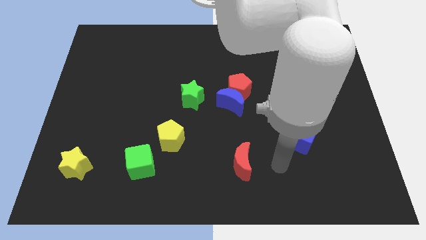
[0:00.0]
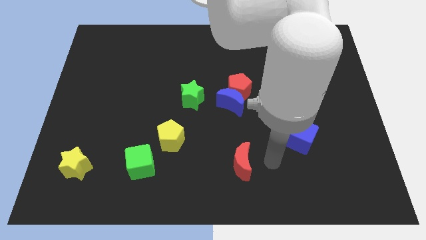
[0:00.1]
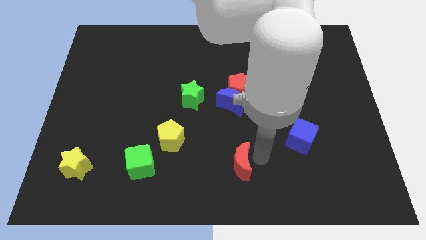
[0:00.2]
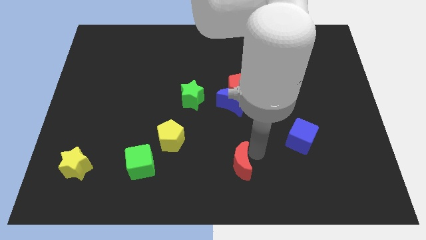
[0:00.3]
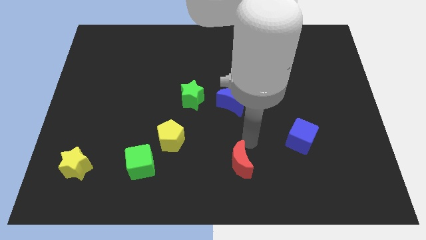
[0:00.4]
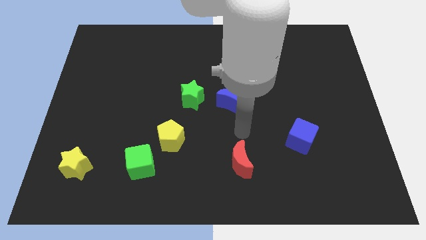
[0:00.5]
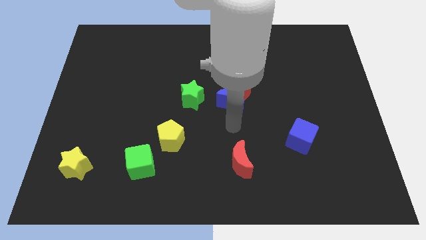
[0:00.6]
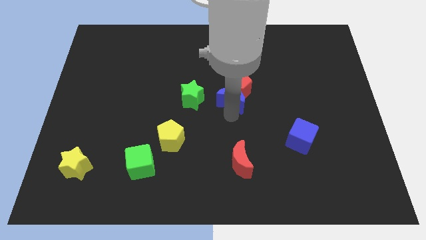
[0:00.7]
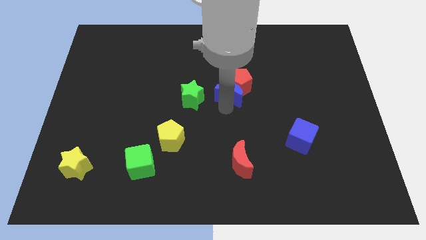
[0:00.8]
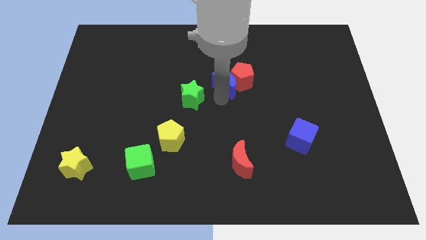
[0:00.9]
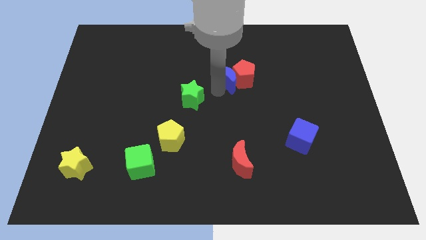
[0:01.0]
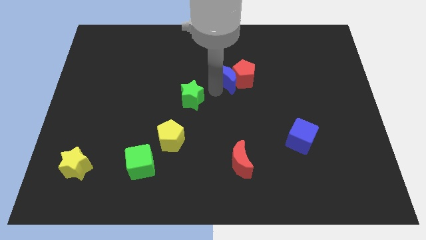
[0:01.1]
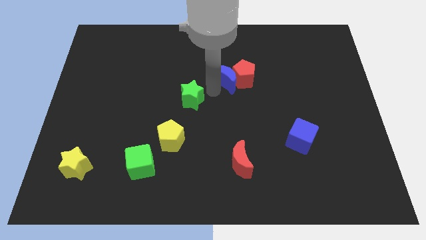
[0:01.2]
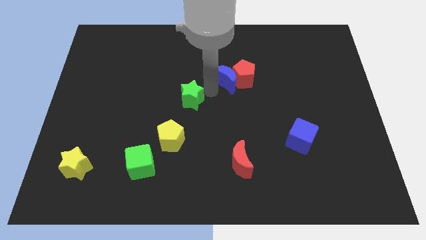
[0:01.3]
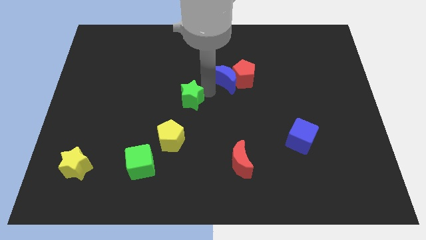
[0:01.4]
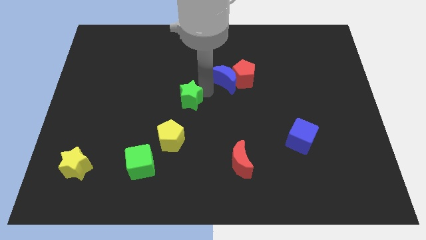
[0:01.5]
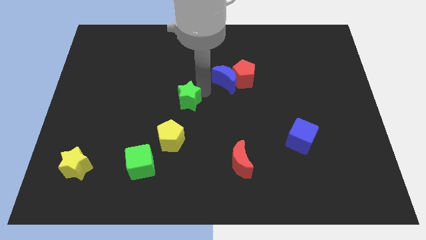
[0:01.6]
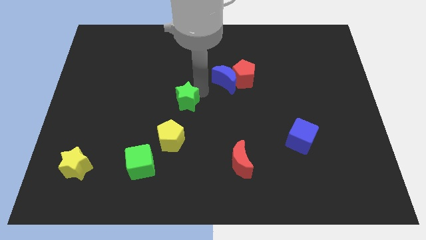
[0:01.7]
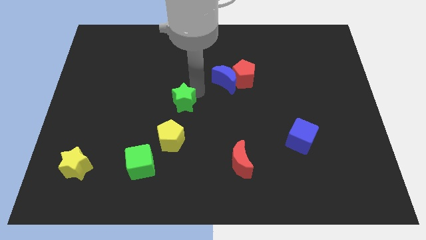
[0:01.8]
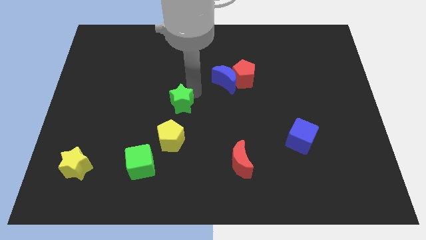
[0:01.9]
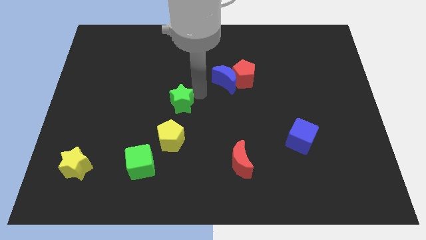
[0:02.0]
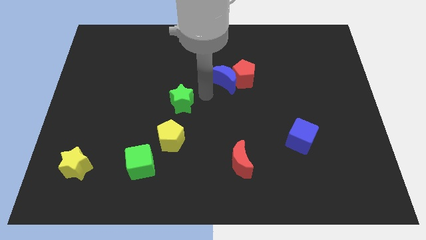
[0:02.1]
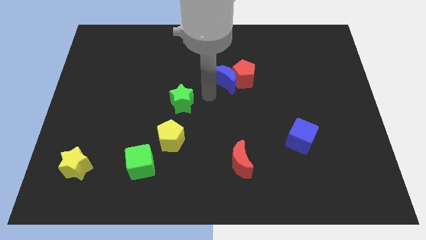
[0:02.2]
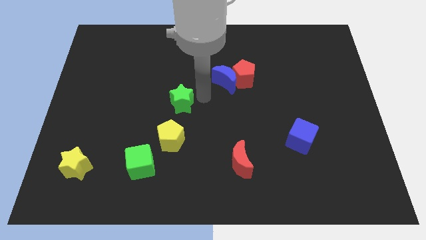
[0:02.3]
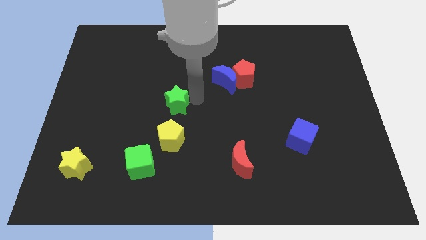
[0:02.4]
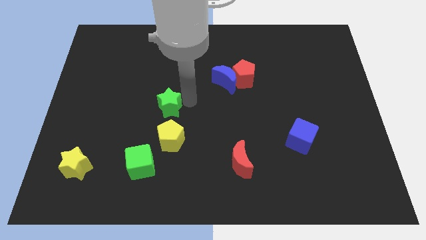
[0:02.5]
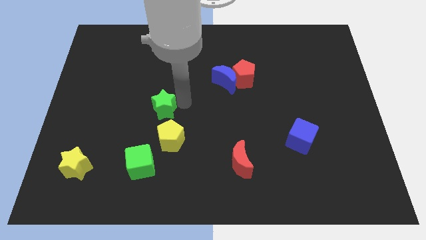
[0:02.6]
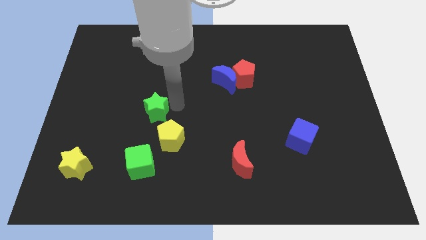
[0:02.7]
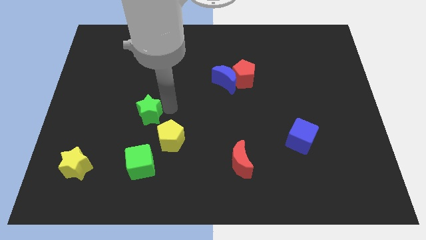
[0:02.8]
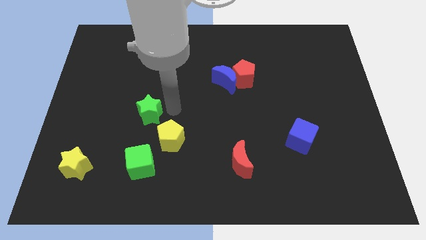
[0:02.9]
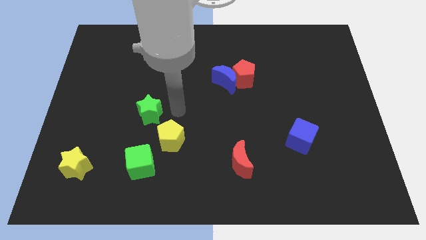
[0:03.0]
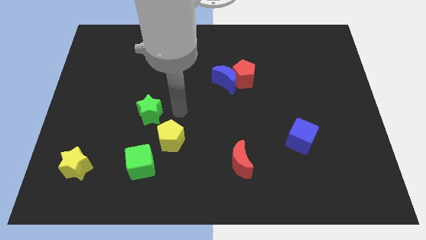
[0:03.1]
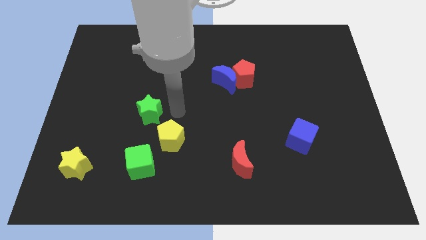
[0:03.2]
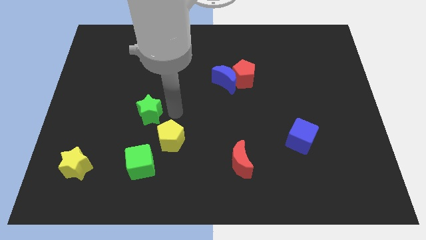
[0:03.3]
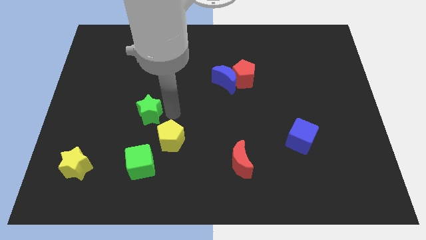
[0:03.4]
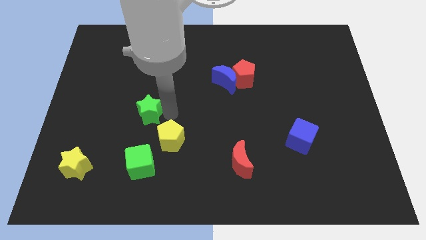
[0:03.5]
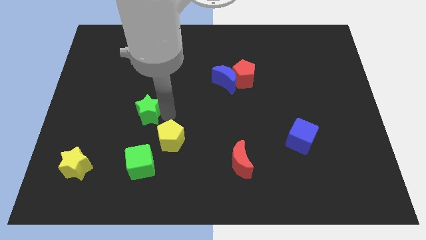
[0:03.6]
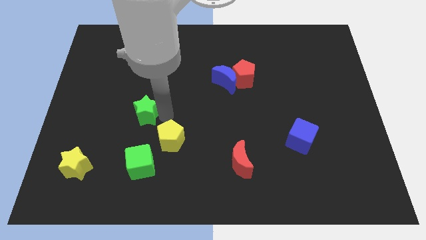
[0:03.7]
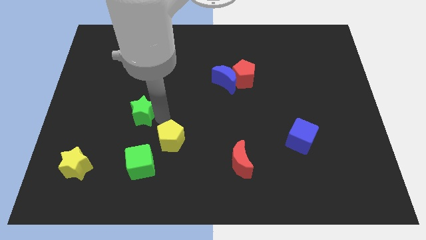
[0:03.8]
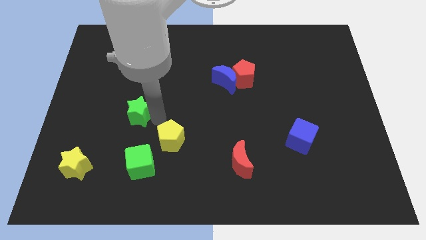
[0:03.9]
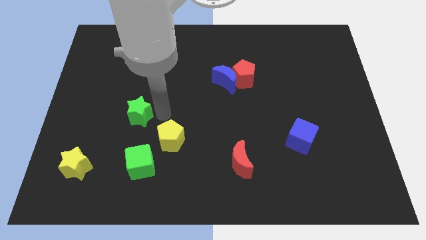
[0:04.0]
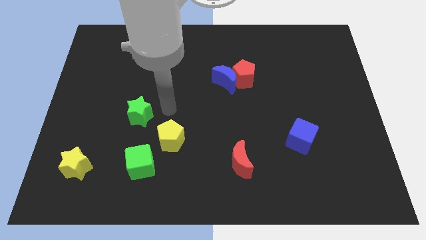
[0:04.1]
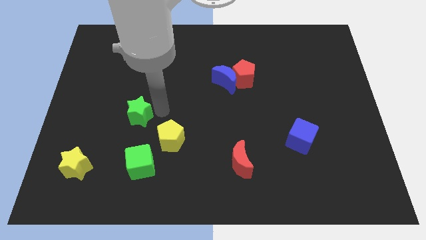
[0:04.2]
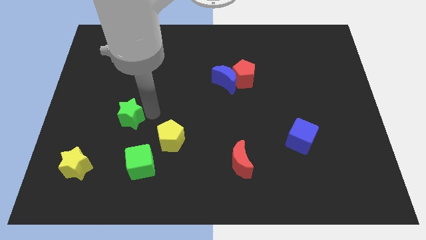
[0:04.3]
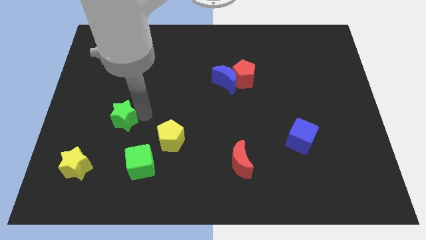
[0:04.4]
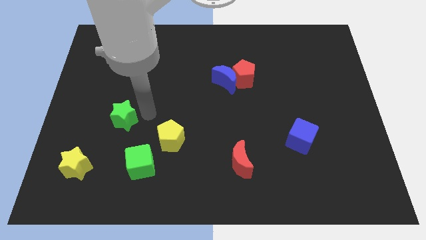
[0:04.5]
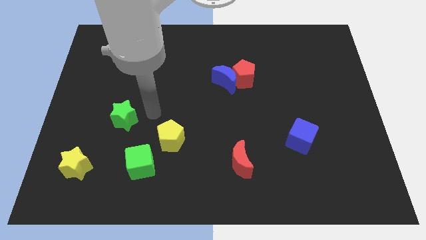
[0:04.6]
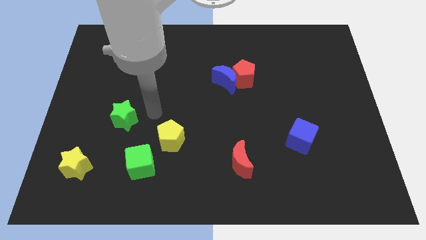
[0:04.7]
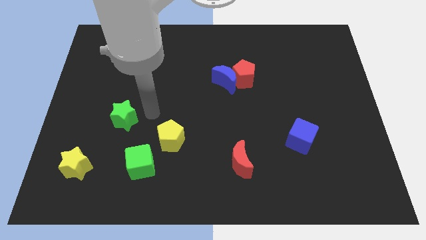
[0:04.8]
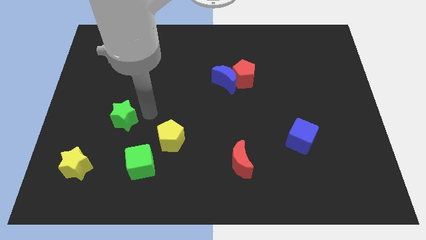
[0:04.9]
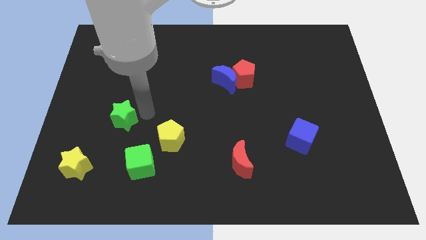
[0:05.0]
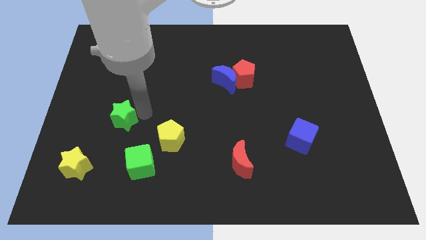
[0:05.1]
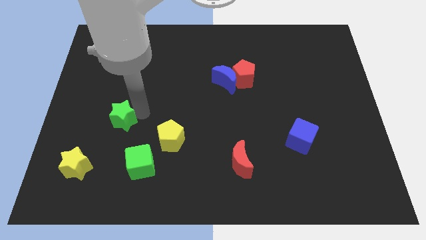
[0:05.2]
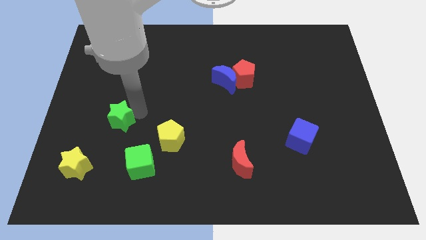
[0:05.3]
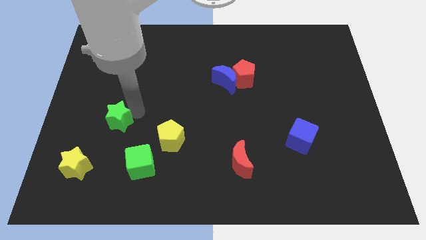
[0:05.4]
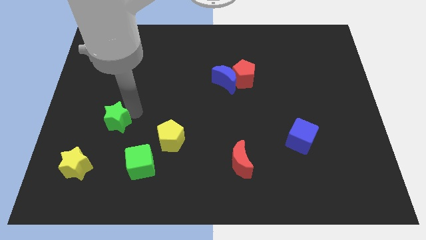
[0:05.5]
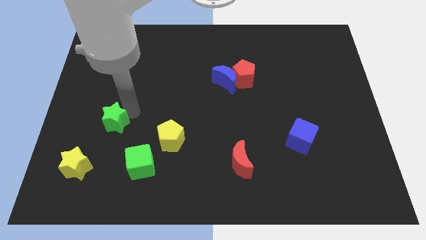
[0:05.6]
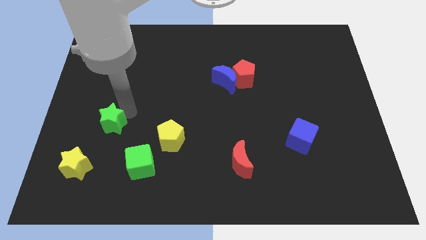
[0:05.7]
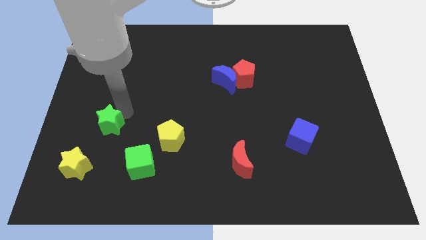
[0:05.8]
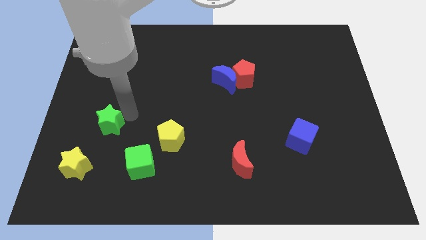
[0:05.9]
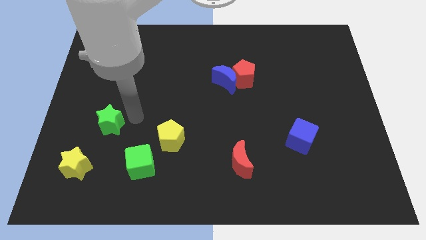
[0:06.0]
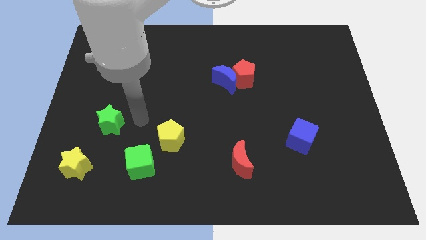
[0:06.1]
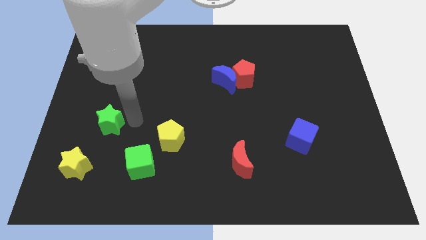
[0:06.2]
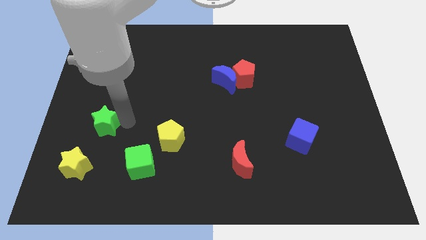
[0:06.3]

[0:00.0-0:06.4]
push the green star to the top side of the yellow star

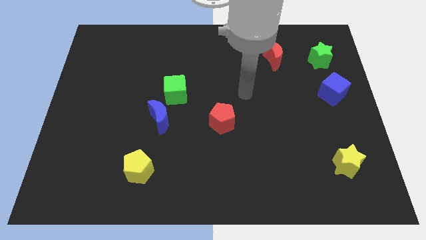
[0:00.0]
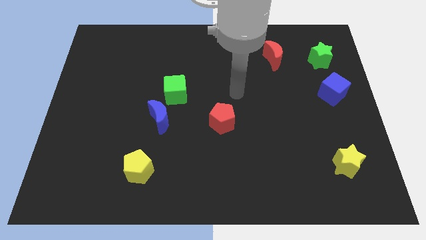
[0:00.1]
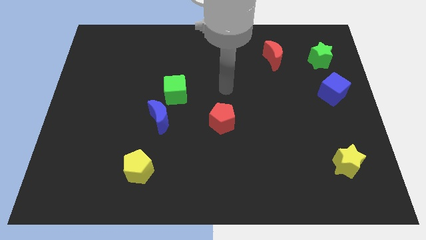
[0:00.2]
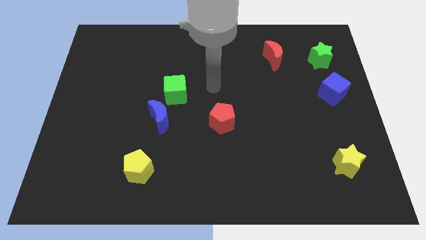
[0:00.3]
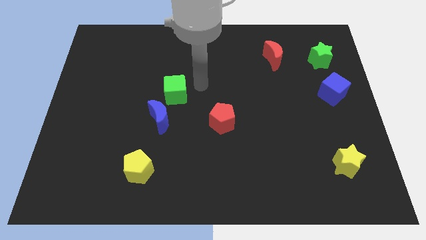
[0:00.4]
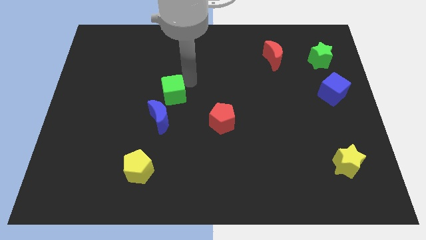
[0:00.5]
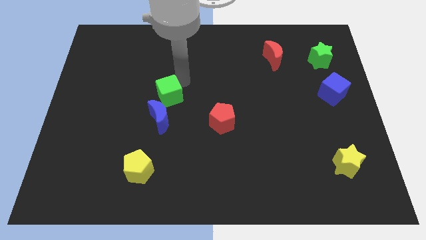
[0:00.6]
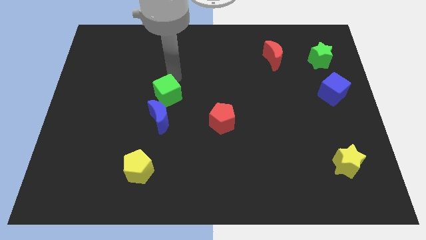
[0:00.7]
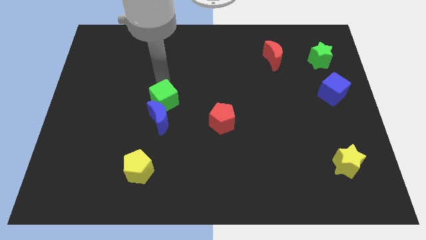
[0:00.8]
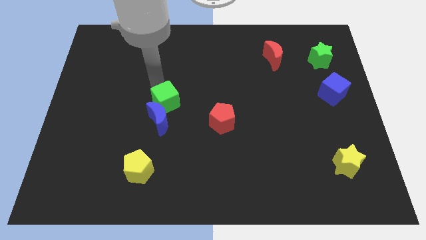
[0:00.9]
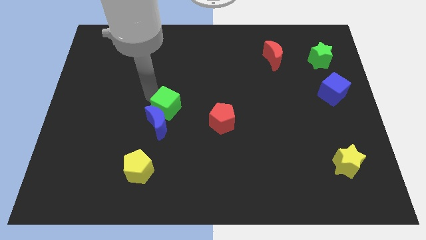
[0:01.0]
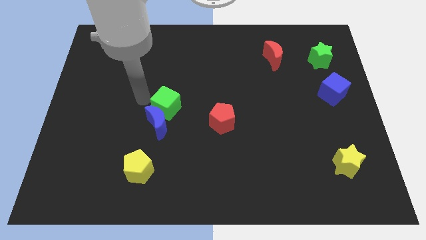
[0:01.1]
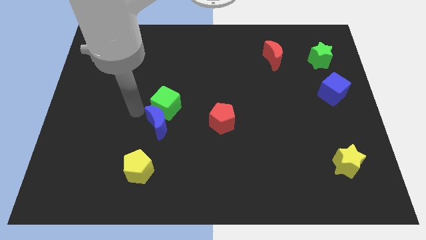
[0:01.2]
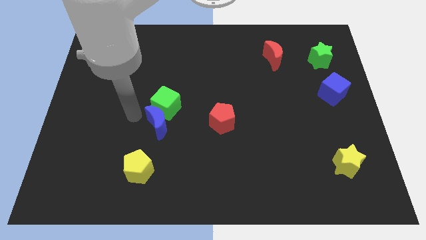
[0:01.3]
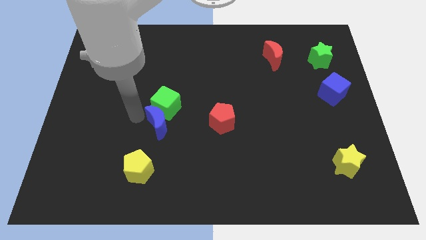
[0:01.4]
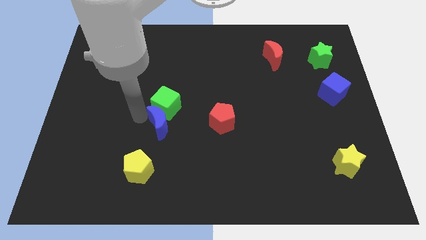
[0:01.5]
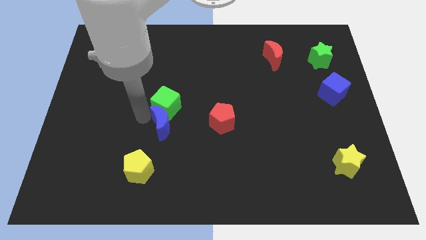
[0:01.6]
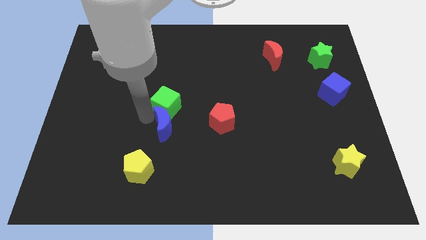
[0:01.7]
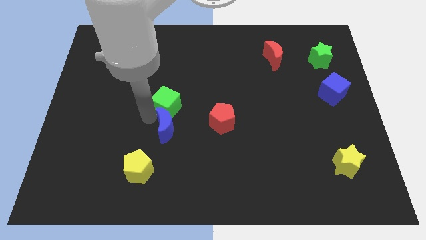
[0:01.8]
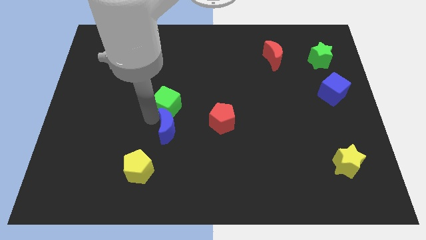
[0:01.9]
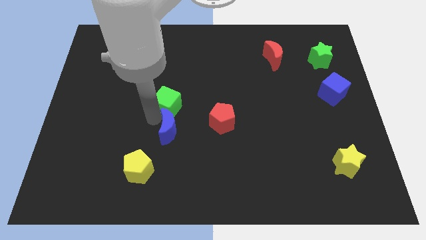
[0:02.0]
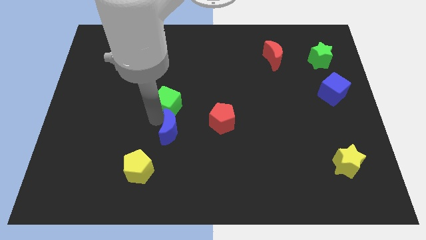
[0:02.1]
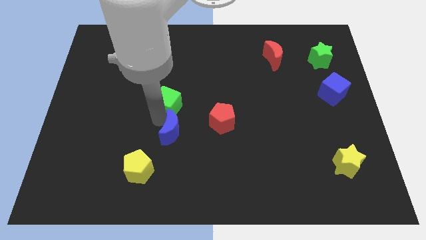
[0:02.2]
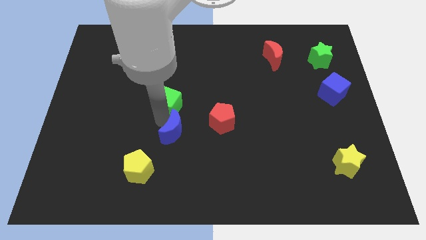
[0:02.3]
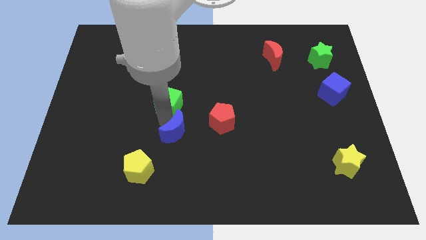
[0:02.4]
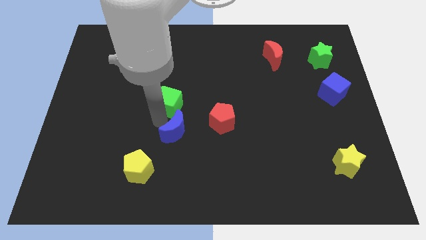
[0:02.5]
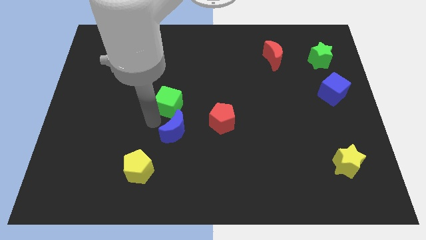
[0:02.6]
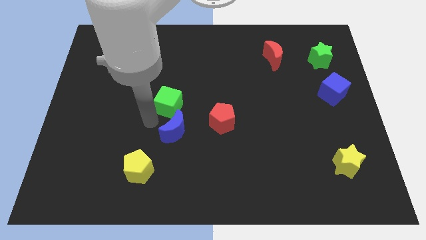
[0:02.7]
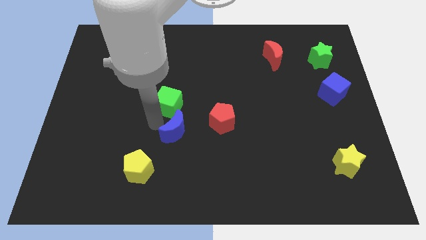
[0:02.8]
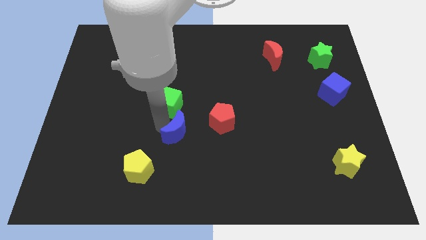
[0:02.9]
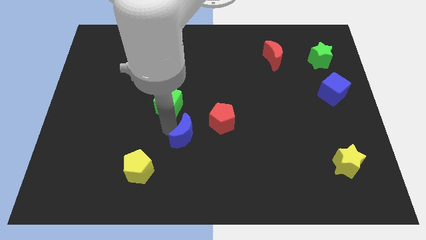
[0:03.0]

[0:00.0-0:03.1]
put the blue moon diagonally down and to the left of the red pentagon
